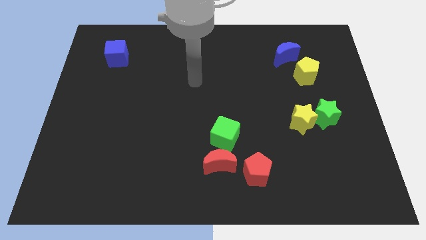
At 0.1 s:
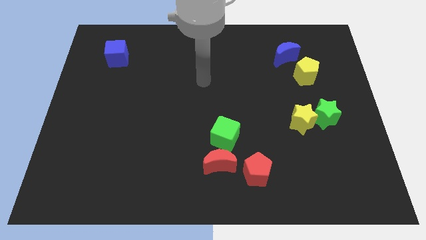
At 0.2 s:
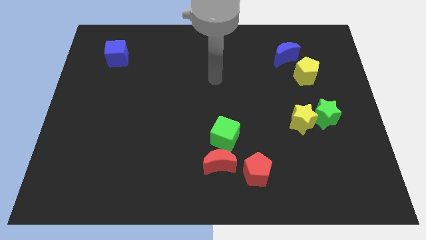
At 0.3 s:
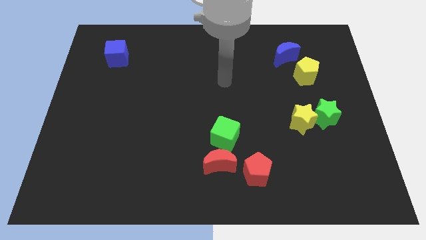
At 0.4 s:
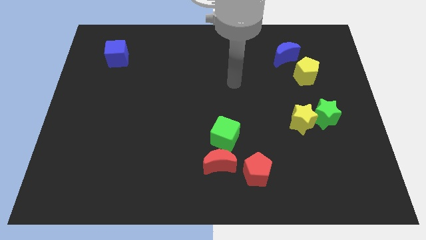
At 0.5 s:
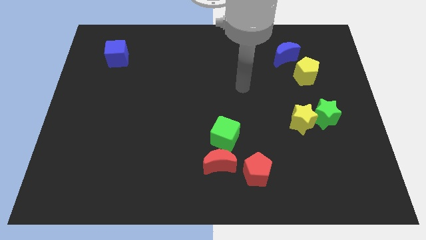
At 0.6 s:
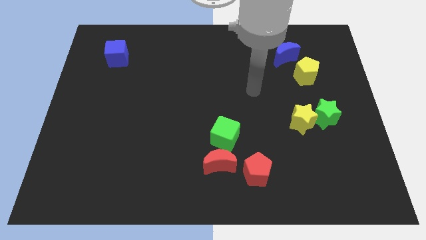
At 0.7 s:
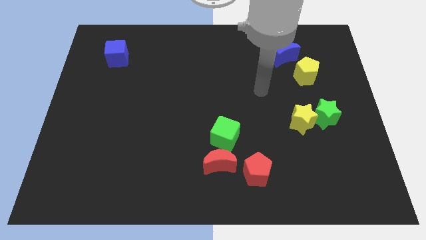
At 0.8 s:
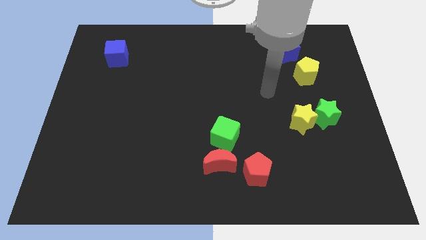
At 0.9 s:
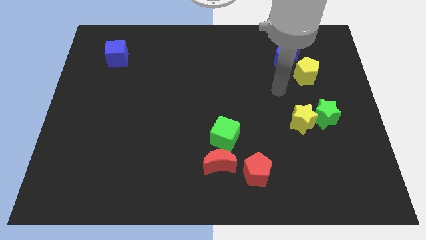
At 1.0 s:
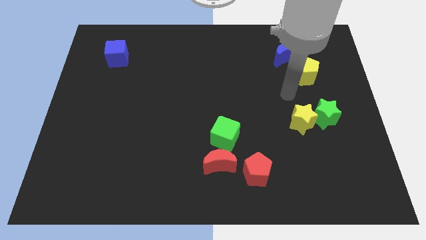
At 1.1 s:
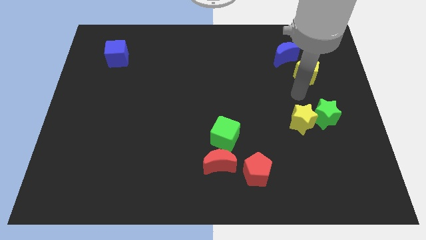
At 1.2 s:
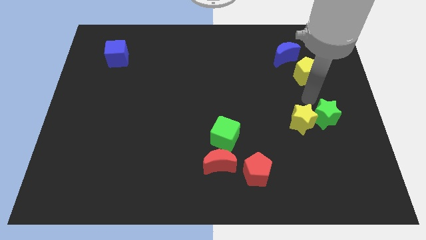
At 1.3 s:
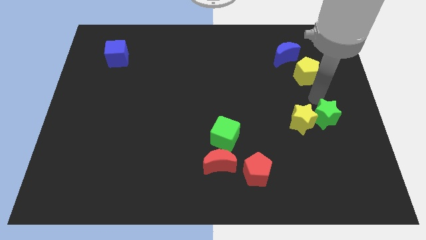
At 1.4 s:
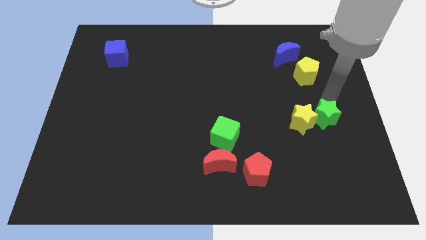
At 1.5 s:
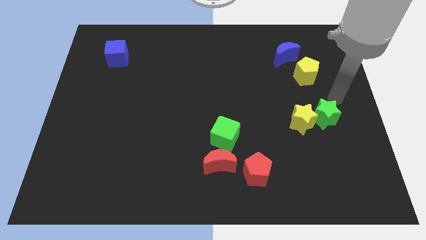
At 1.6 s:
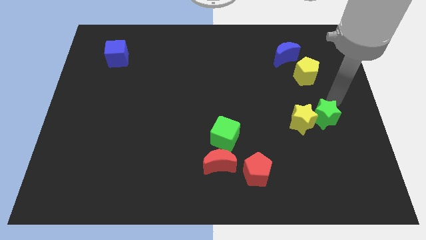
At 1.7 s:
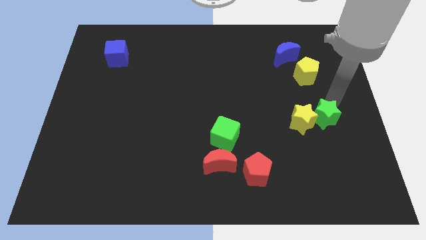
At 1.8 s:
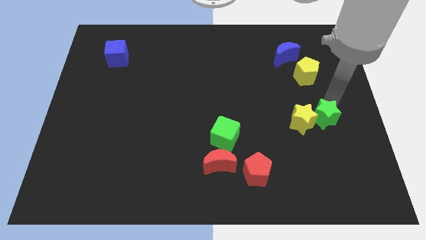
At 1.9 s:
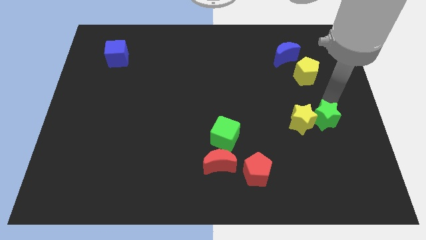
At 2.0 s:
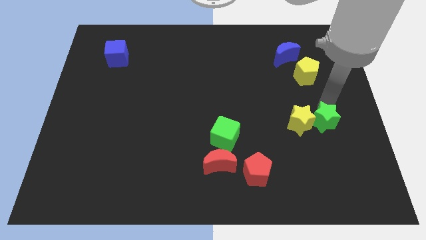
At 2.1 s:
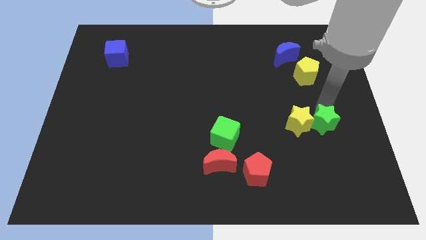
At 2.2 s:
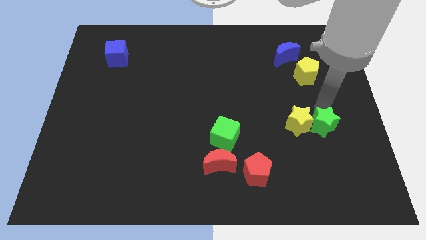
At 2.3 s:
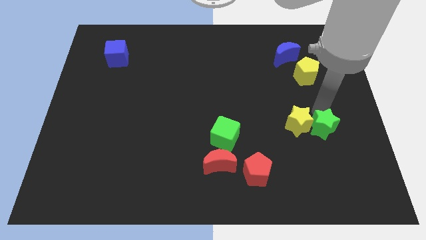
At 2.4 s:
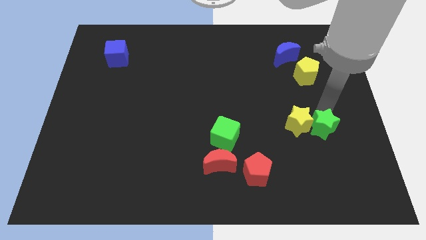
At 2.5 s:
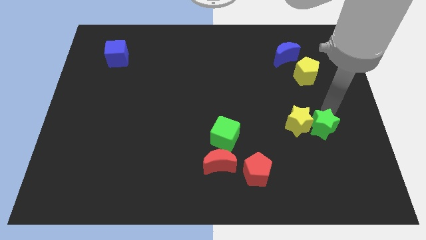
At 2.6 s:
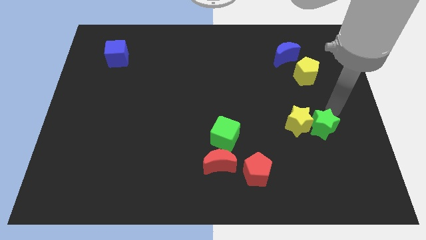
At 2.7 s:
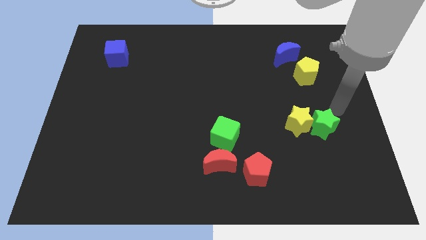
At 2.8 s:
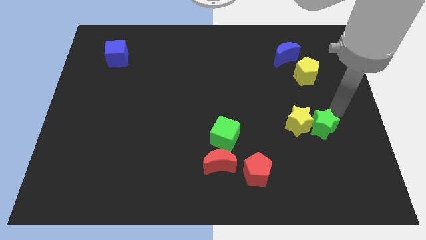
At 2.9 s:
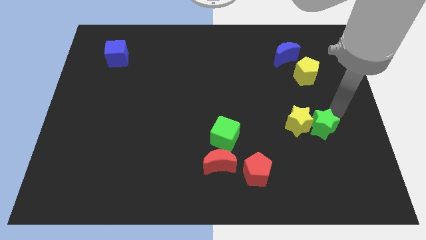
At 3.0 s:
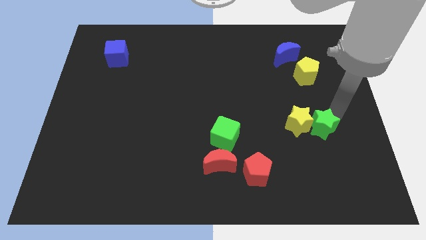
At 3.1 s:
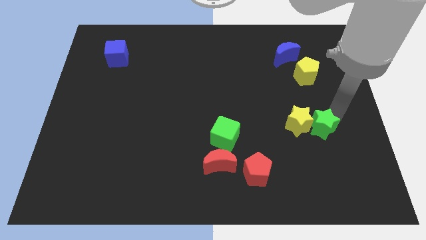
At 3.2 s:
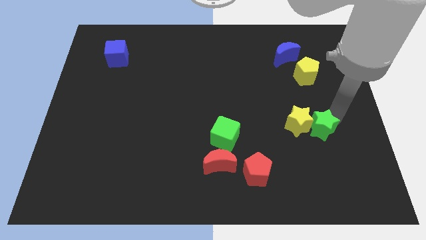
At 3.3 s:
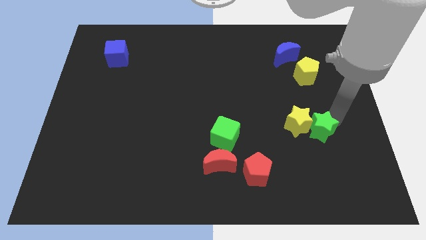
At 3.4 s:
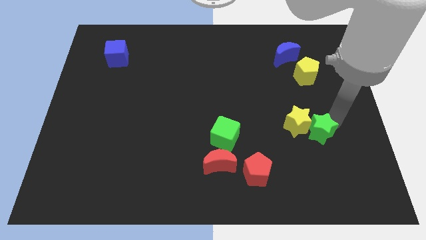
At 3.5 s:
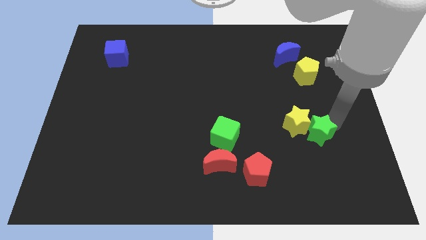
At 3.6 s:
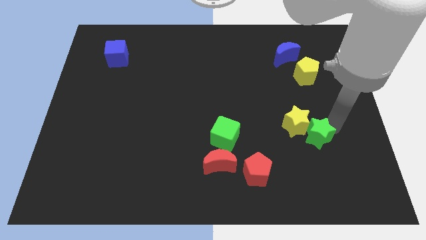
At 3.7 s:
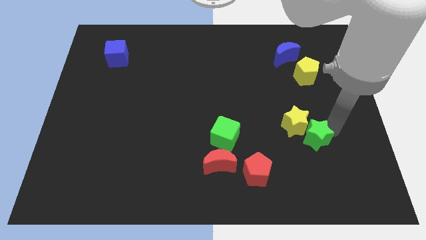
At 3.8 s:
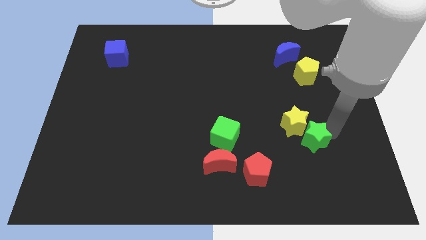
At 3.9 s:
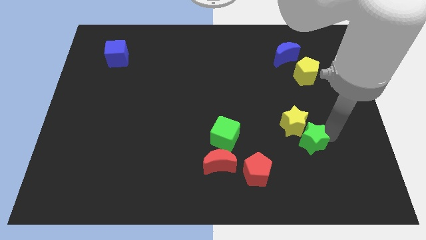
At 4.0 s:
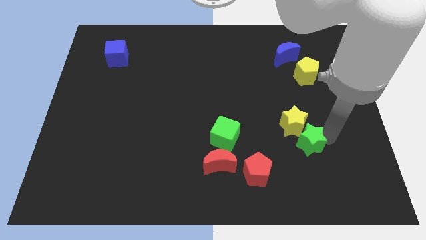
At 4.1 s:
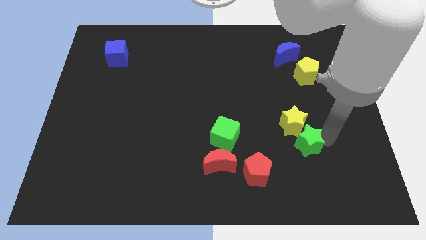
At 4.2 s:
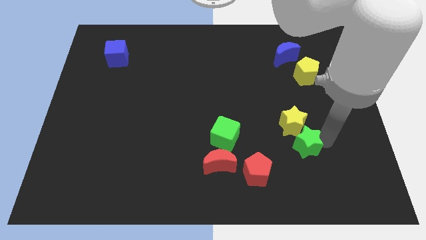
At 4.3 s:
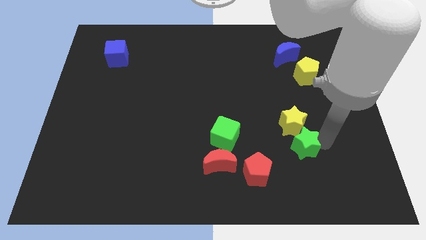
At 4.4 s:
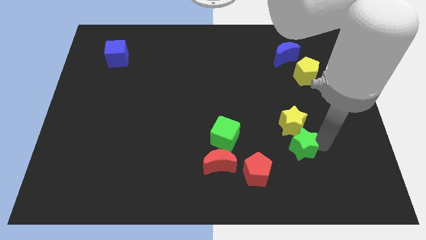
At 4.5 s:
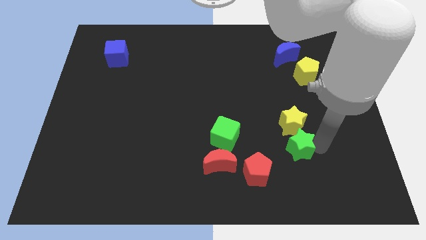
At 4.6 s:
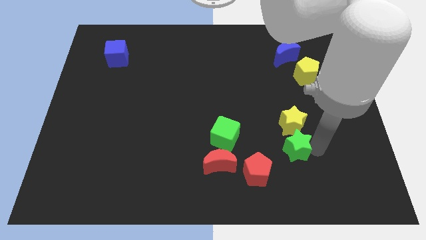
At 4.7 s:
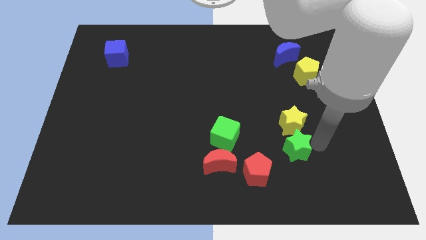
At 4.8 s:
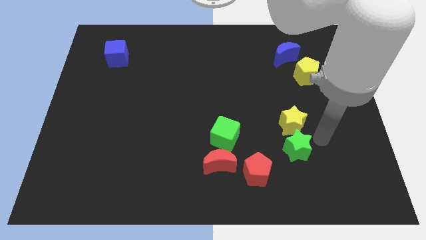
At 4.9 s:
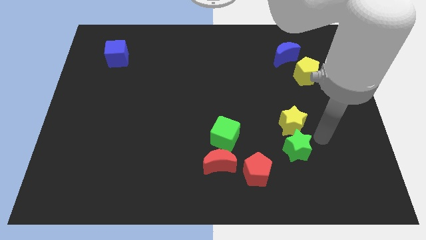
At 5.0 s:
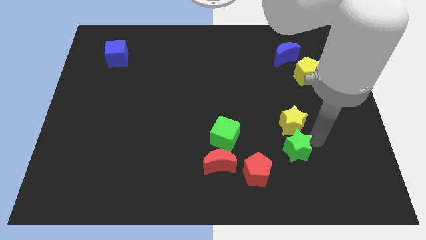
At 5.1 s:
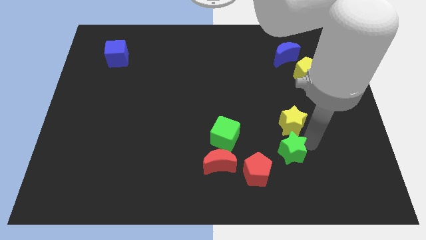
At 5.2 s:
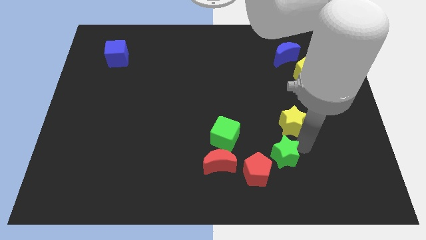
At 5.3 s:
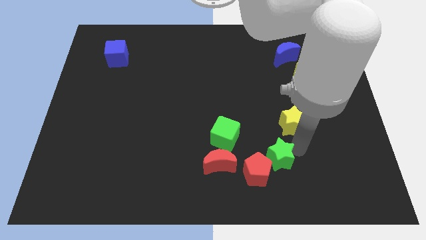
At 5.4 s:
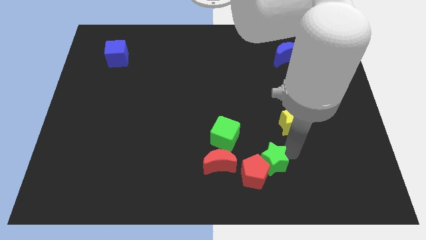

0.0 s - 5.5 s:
move the green star next to the red pentagon

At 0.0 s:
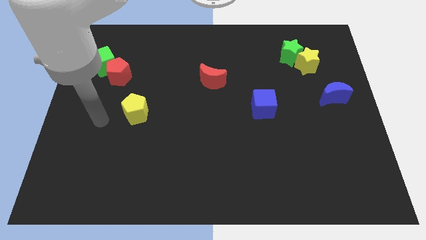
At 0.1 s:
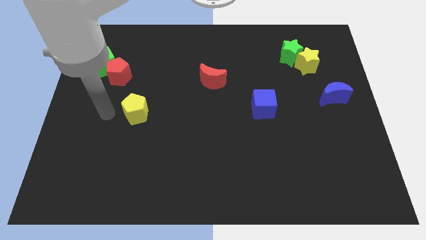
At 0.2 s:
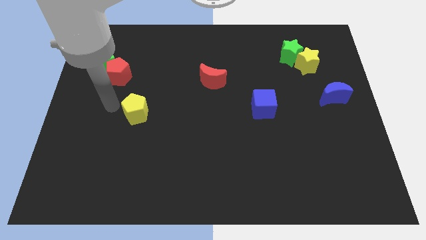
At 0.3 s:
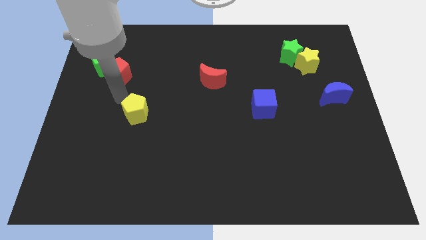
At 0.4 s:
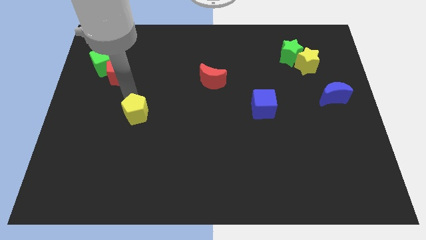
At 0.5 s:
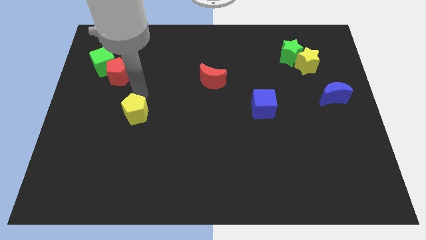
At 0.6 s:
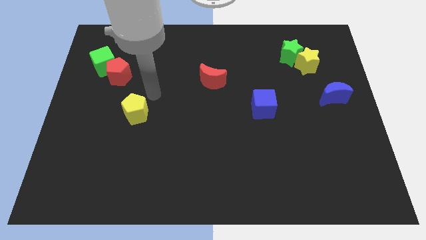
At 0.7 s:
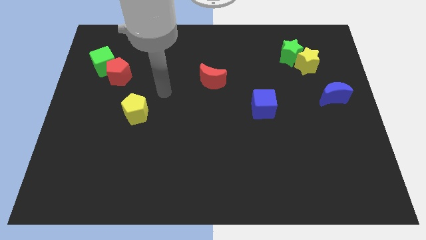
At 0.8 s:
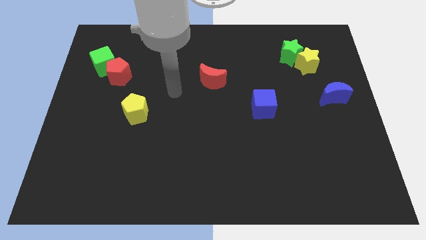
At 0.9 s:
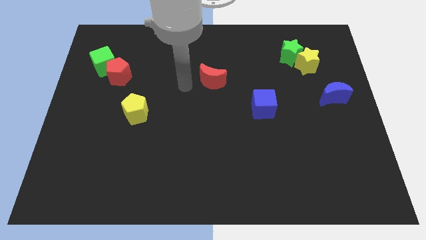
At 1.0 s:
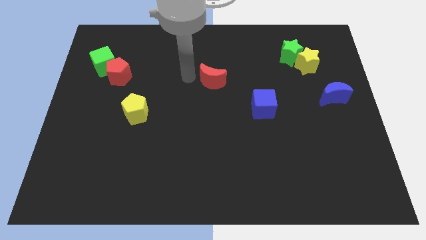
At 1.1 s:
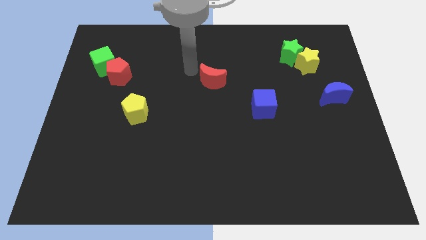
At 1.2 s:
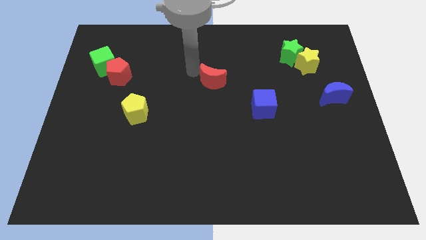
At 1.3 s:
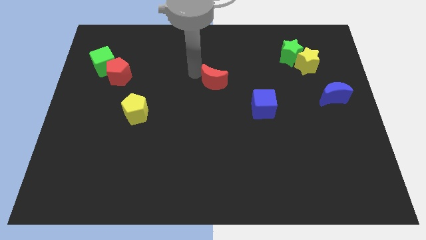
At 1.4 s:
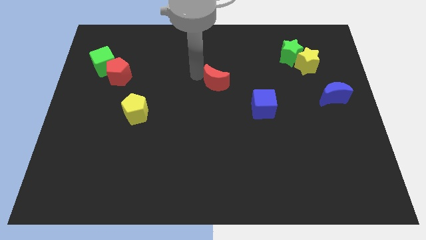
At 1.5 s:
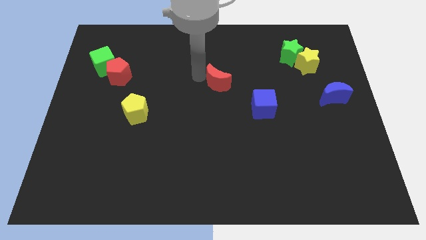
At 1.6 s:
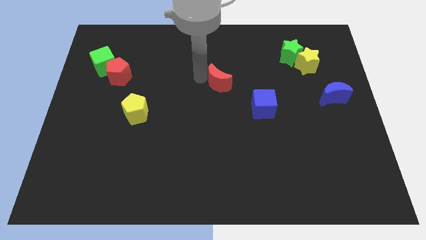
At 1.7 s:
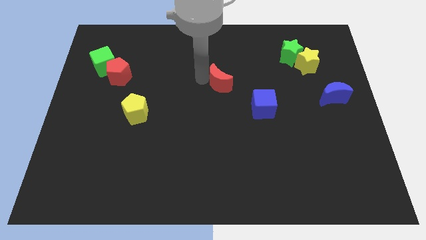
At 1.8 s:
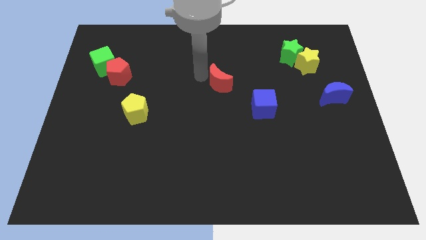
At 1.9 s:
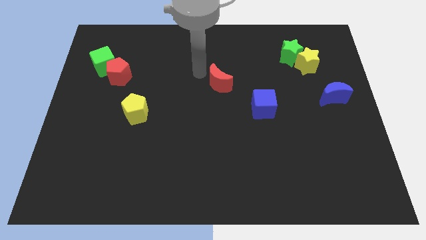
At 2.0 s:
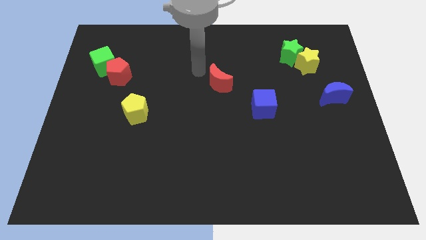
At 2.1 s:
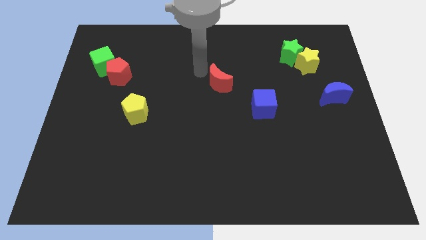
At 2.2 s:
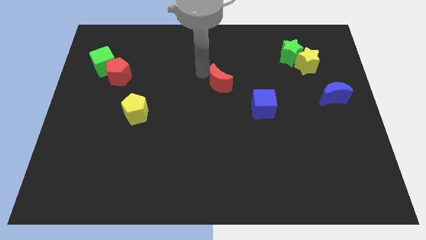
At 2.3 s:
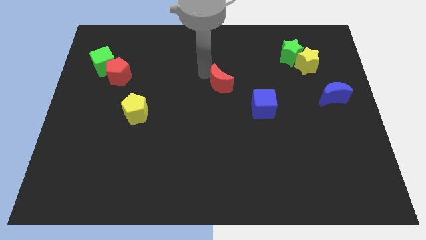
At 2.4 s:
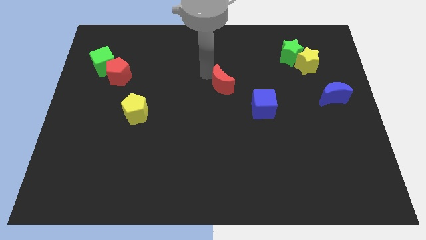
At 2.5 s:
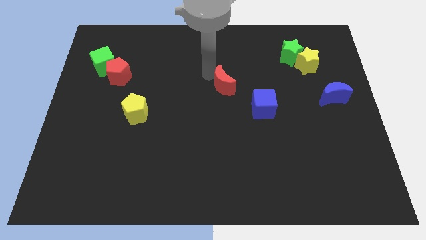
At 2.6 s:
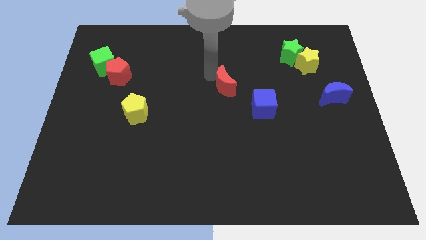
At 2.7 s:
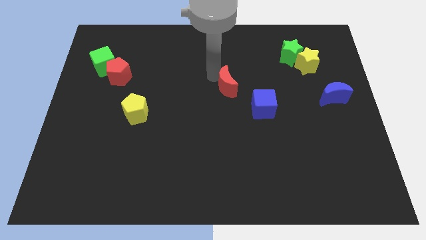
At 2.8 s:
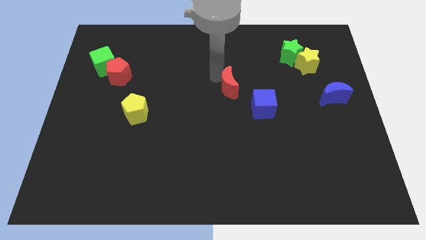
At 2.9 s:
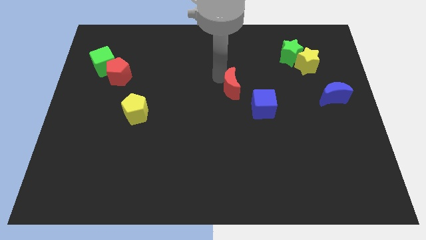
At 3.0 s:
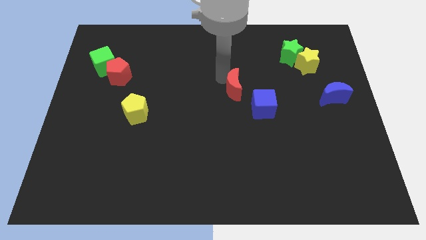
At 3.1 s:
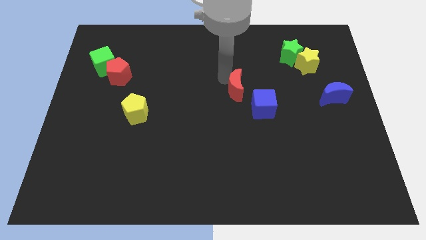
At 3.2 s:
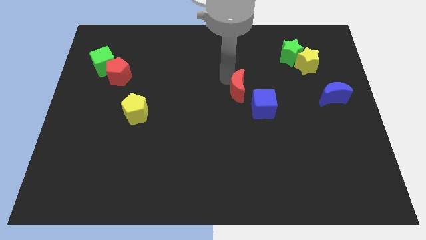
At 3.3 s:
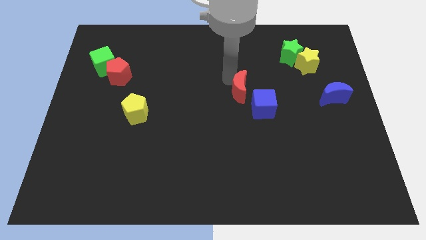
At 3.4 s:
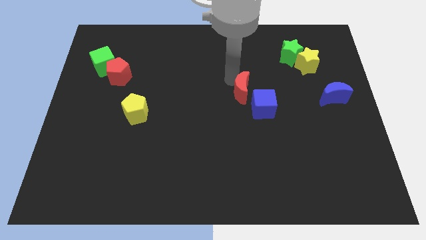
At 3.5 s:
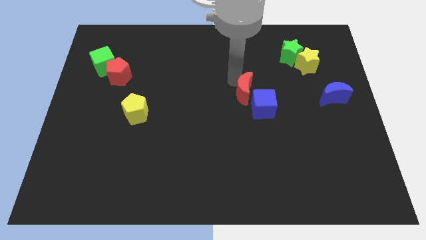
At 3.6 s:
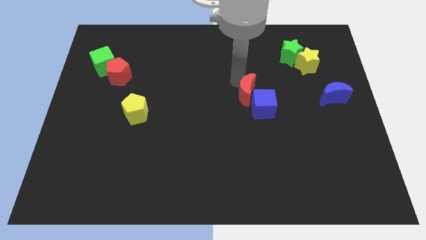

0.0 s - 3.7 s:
slide the red moon close to the blue cube
